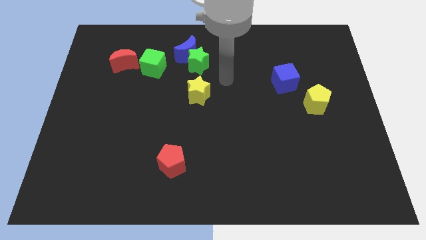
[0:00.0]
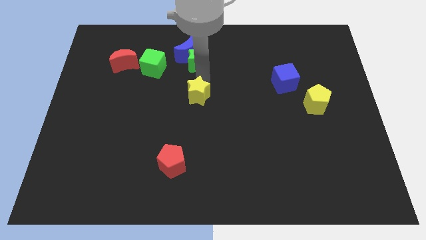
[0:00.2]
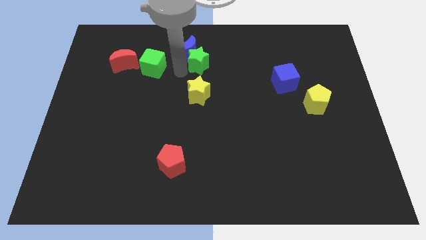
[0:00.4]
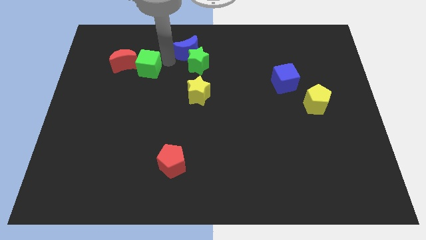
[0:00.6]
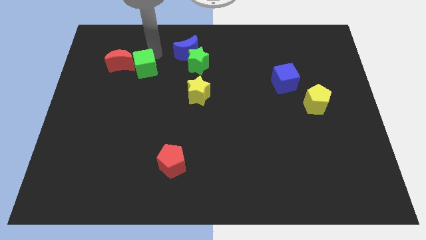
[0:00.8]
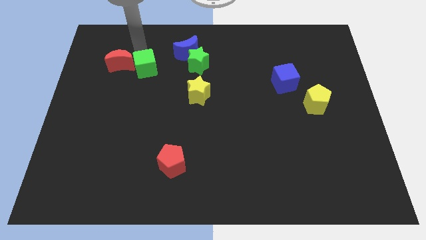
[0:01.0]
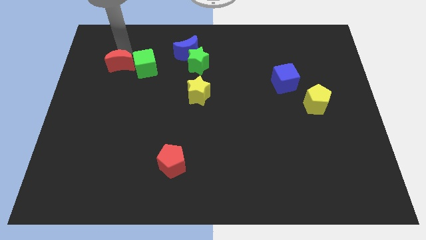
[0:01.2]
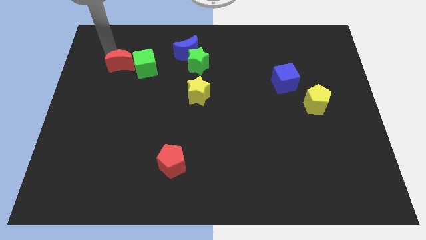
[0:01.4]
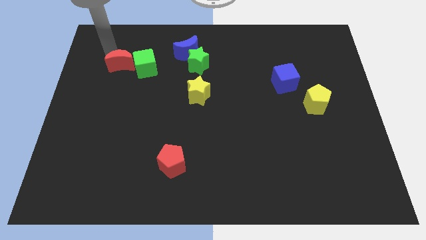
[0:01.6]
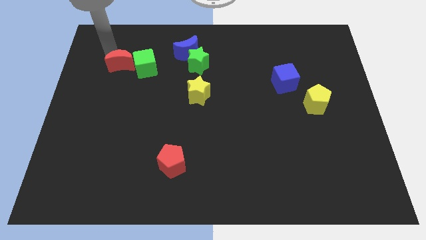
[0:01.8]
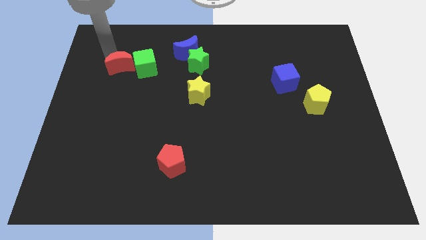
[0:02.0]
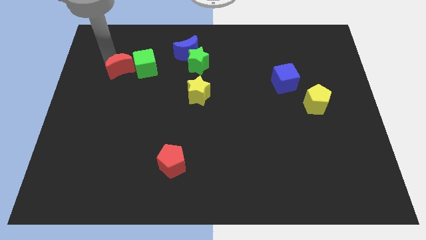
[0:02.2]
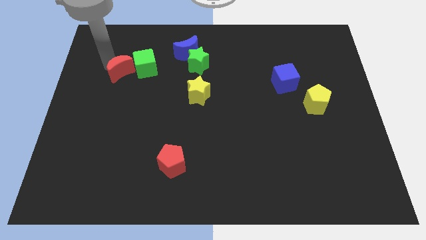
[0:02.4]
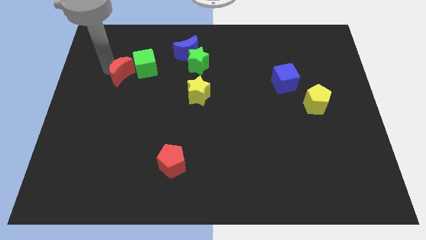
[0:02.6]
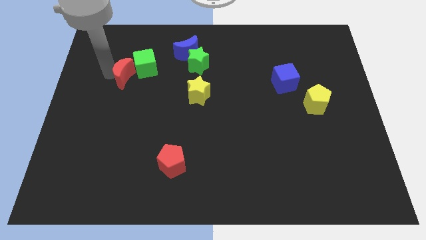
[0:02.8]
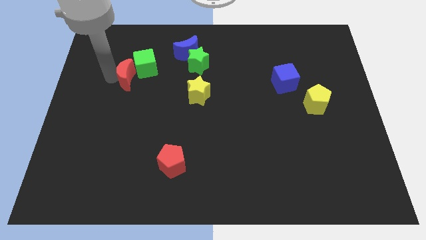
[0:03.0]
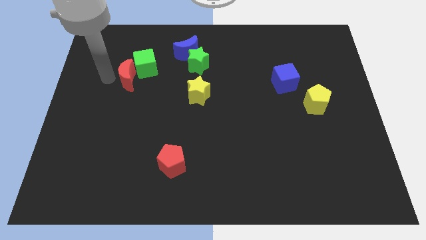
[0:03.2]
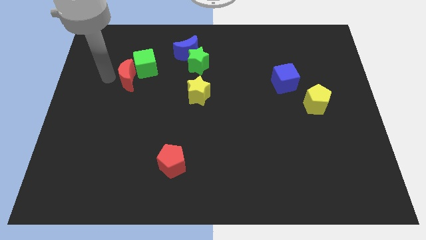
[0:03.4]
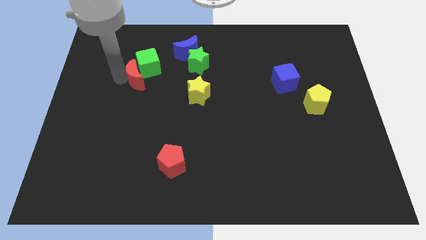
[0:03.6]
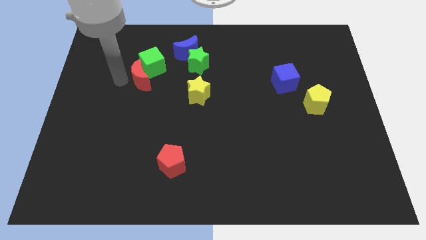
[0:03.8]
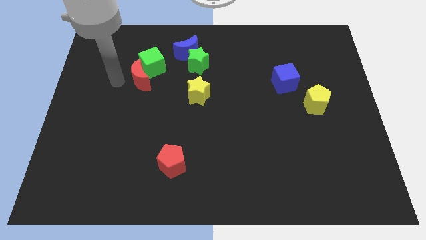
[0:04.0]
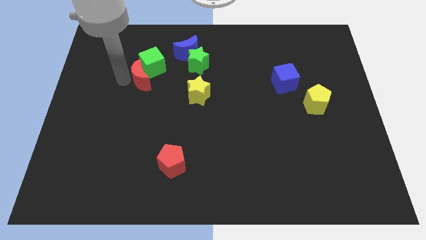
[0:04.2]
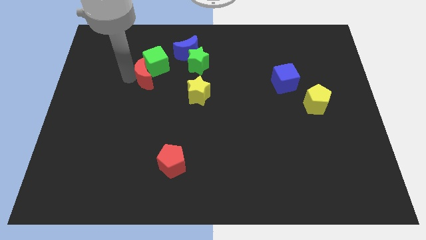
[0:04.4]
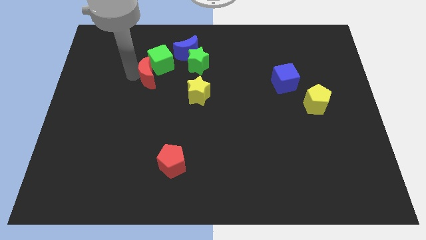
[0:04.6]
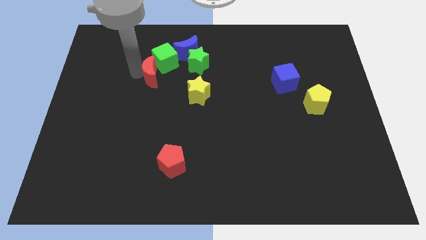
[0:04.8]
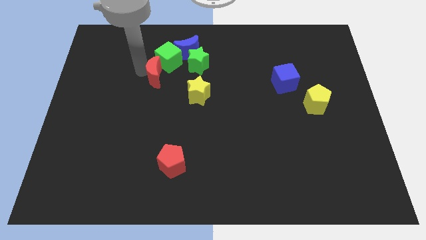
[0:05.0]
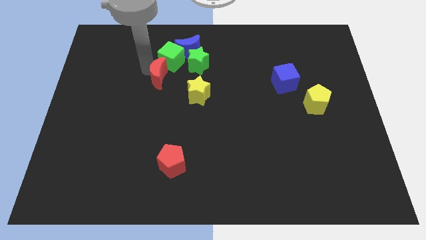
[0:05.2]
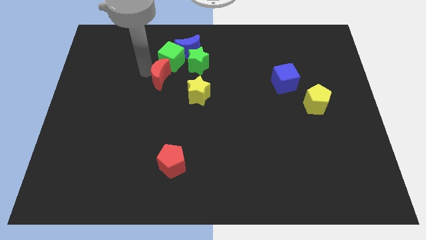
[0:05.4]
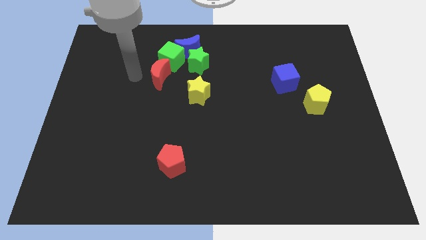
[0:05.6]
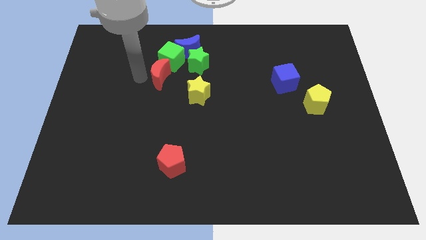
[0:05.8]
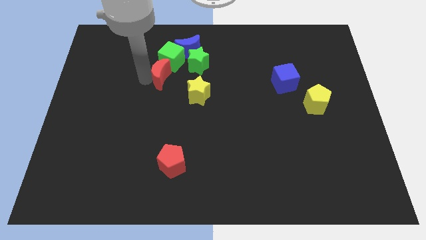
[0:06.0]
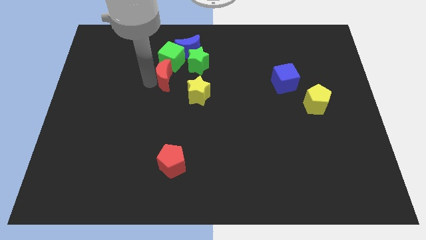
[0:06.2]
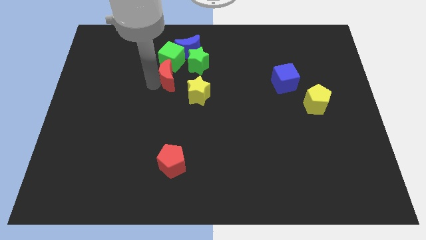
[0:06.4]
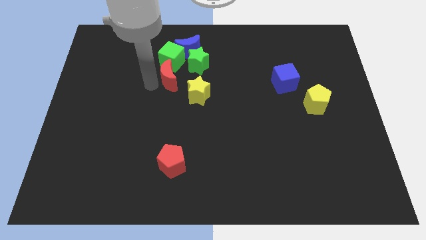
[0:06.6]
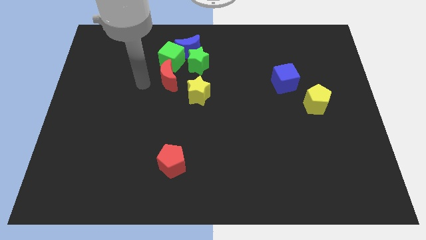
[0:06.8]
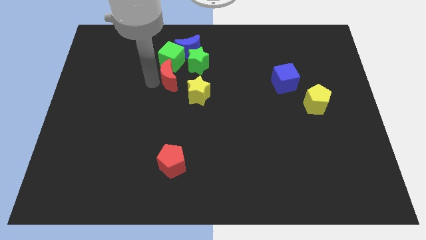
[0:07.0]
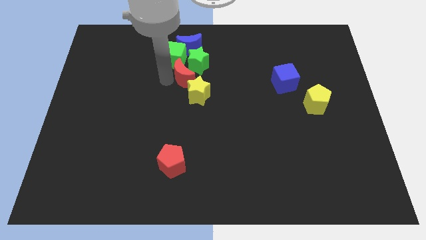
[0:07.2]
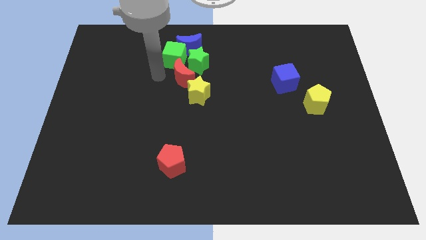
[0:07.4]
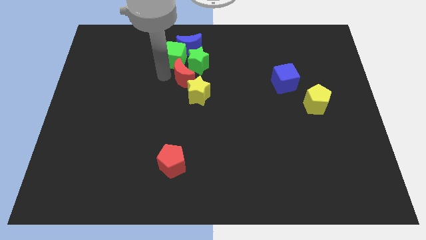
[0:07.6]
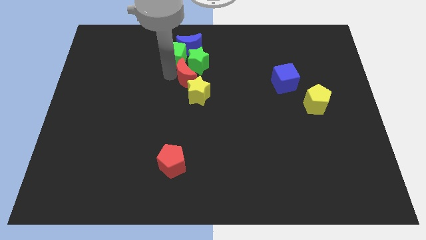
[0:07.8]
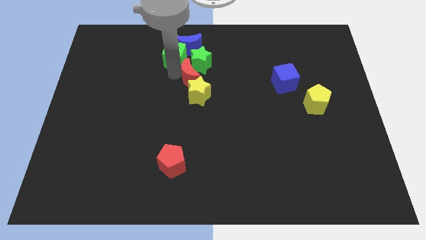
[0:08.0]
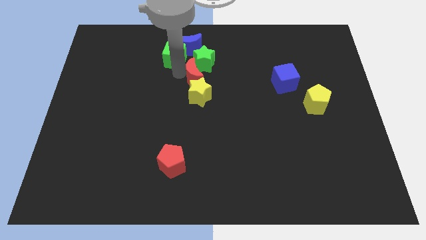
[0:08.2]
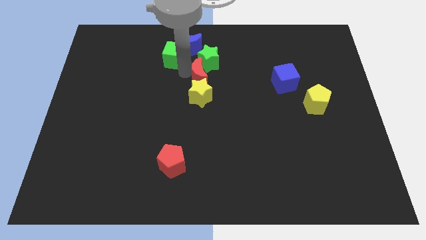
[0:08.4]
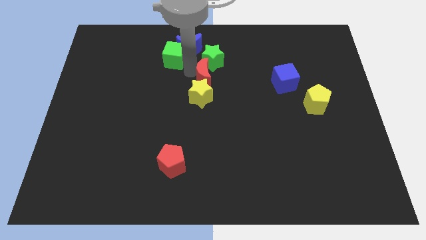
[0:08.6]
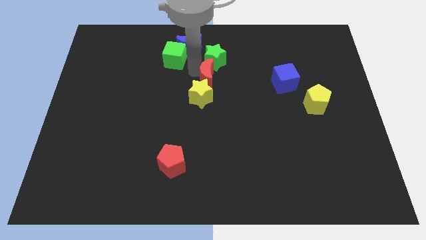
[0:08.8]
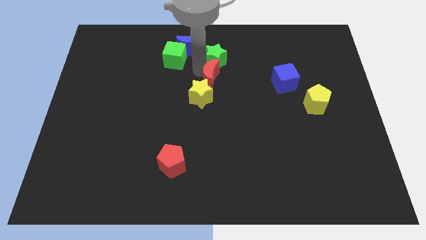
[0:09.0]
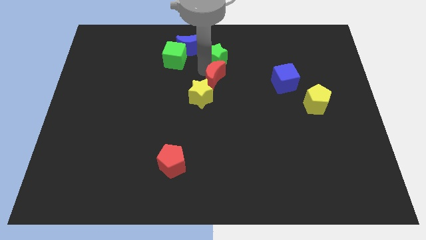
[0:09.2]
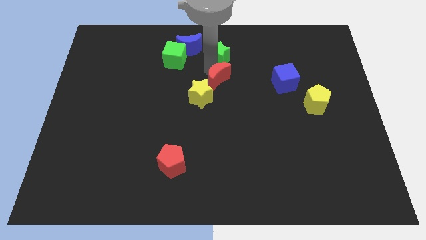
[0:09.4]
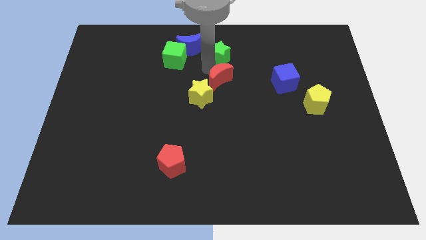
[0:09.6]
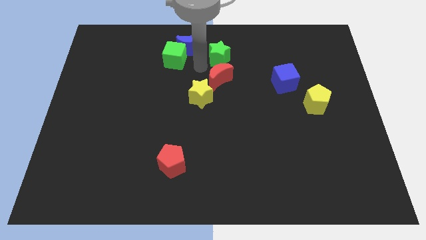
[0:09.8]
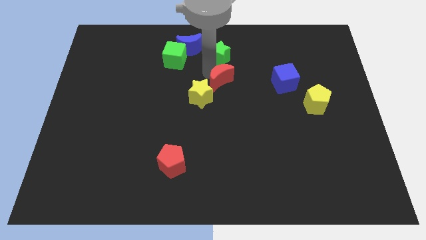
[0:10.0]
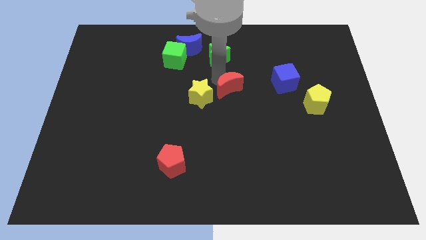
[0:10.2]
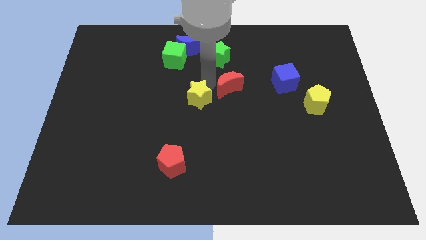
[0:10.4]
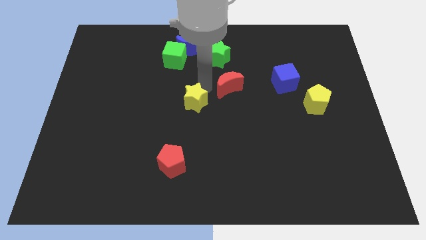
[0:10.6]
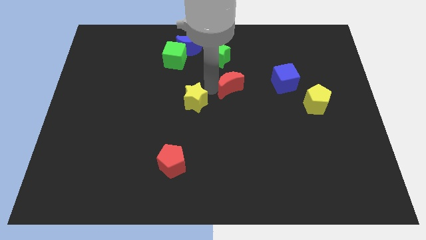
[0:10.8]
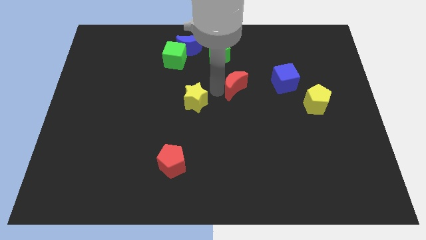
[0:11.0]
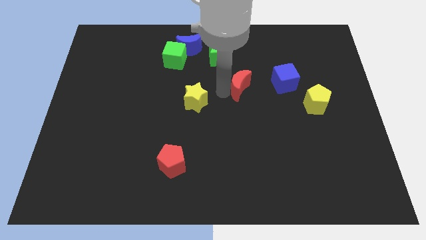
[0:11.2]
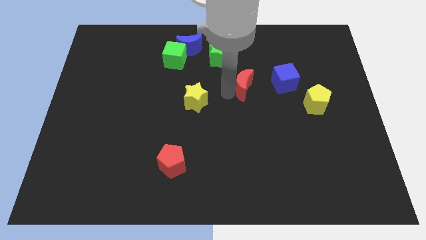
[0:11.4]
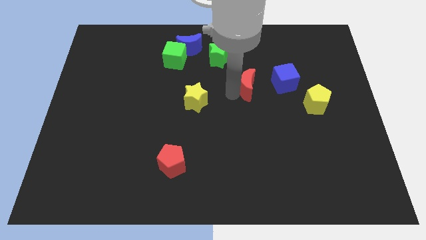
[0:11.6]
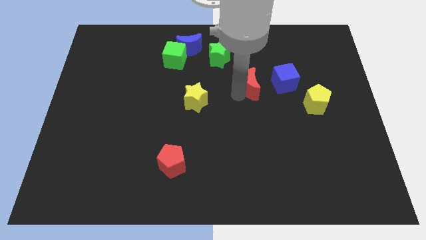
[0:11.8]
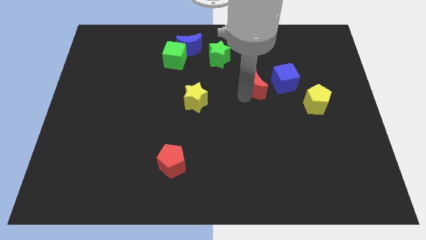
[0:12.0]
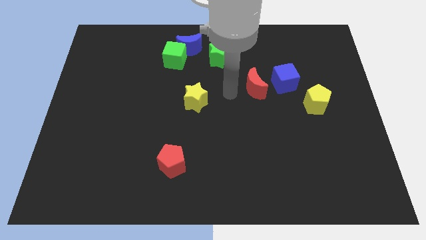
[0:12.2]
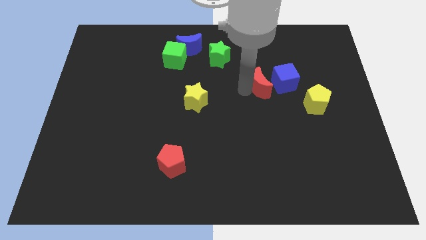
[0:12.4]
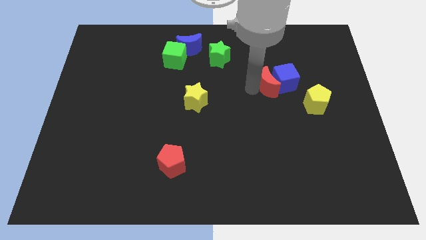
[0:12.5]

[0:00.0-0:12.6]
move the red moon to the blue cube
